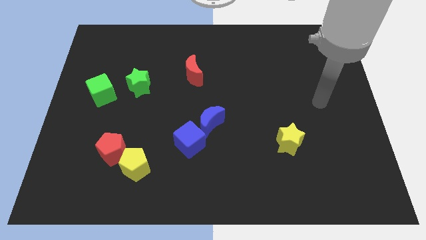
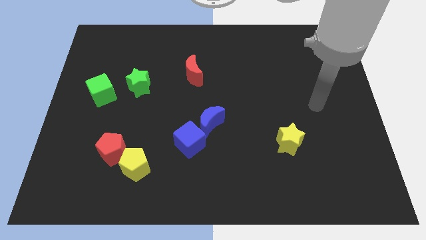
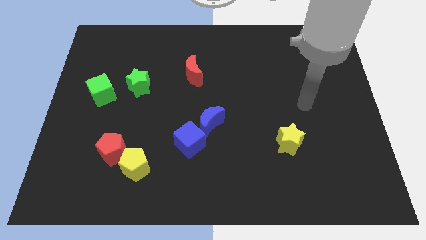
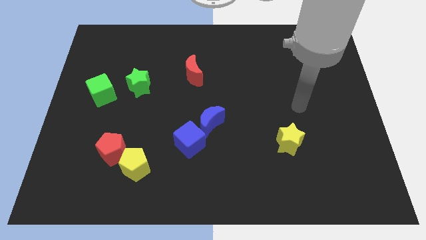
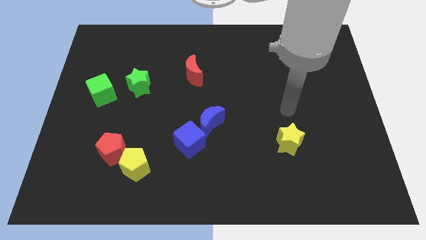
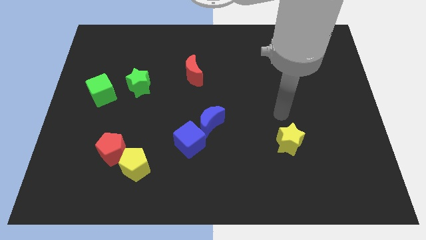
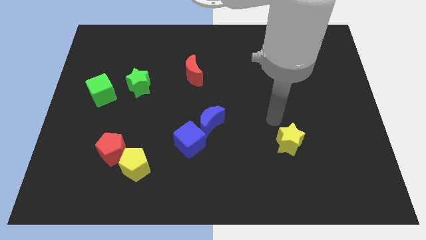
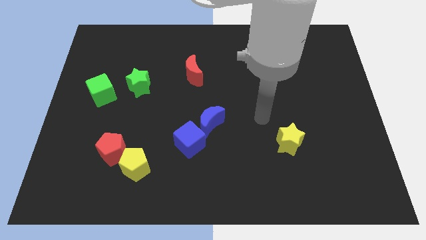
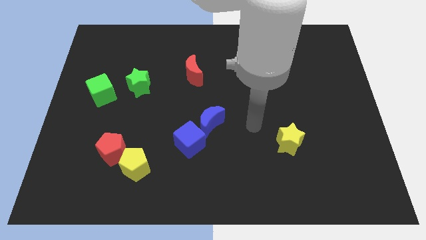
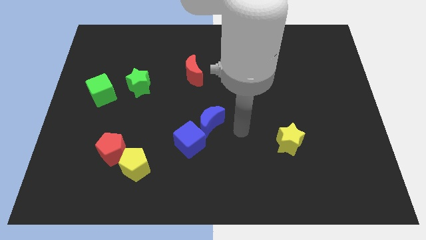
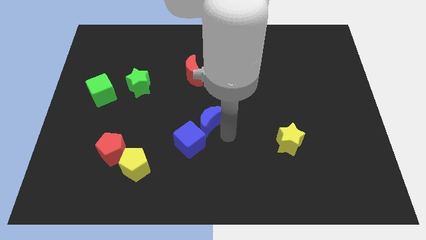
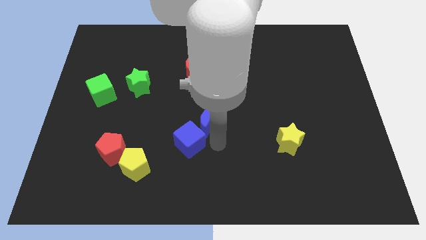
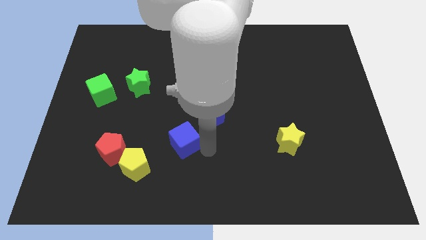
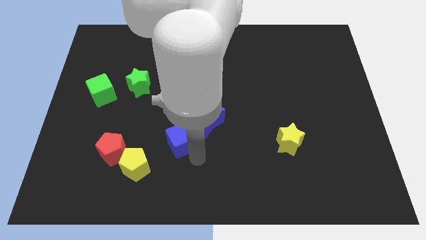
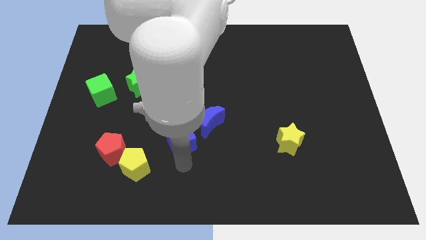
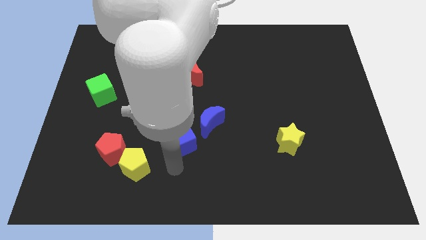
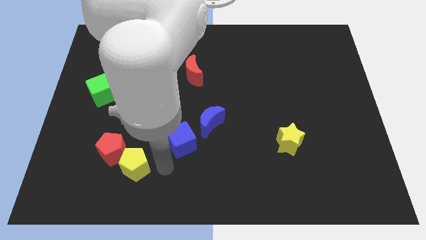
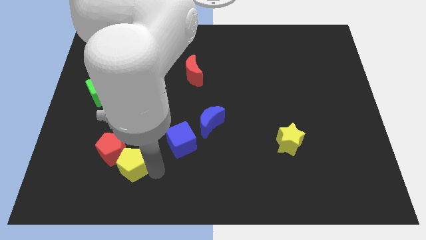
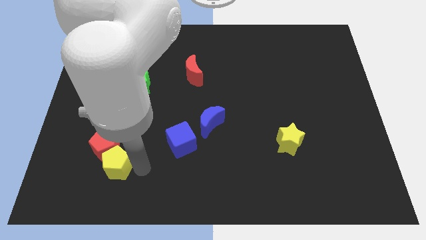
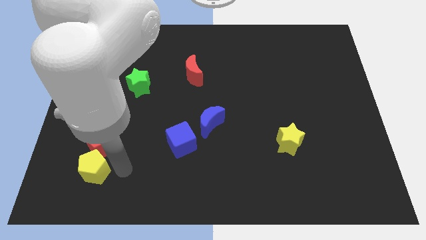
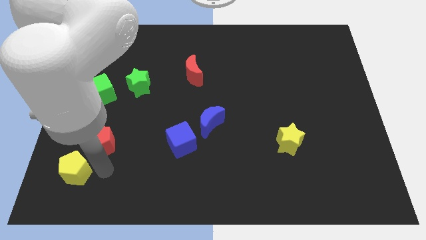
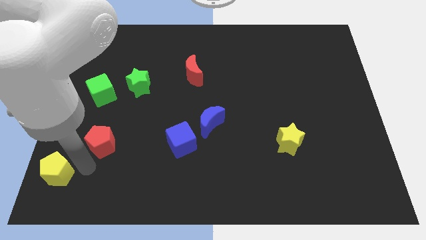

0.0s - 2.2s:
move the red pentagon away from the yellow pentagon

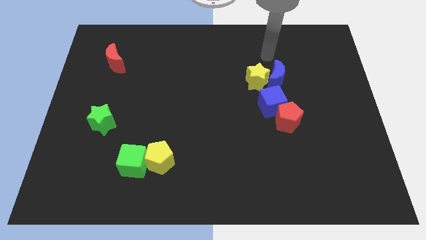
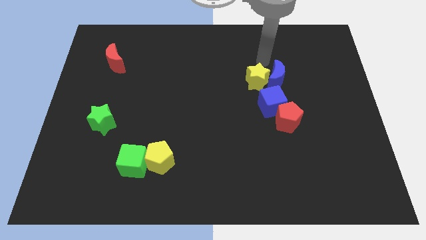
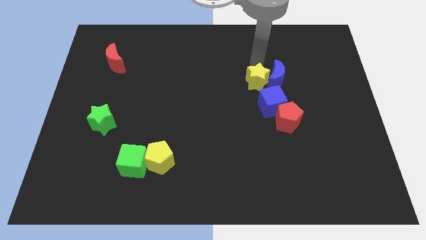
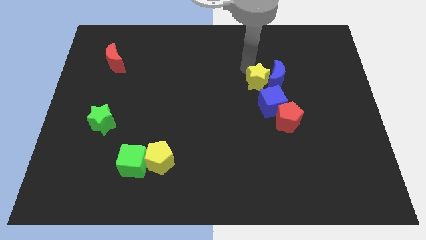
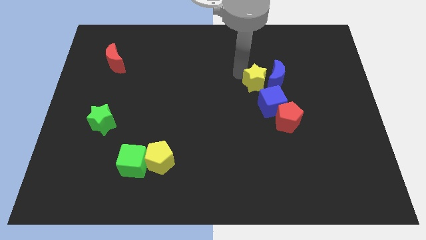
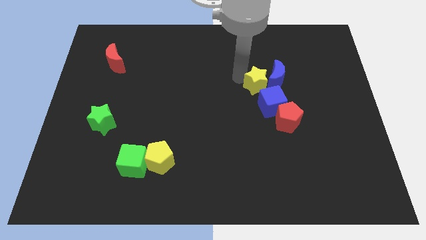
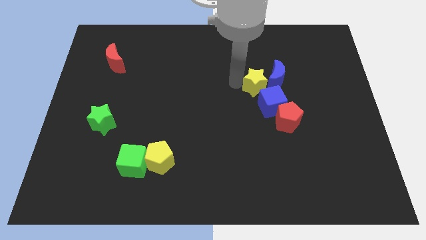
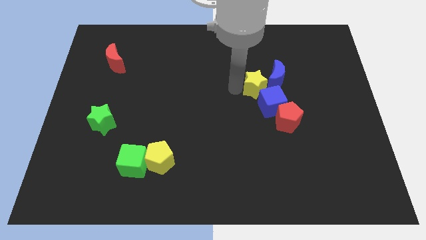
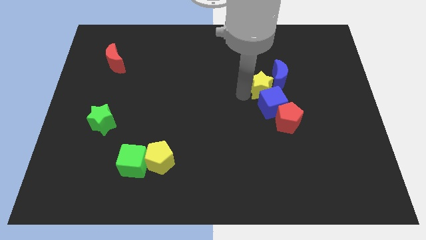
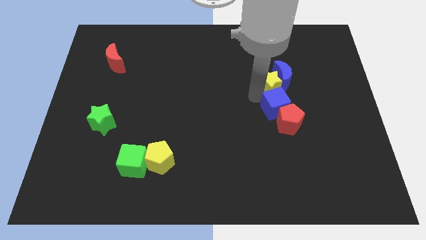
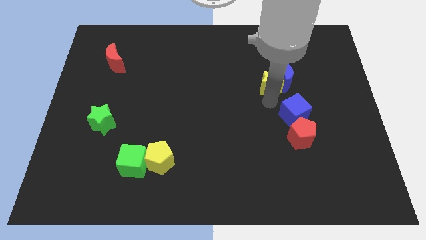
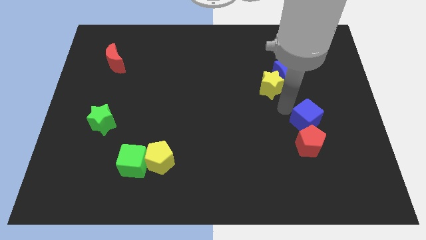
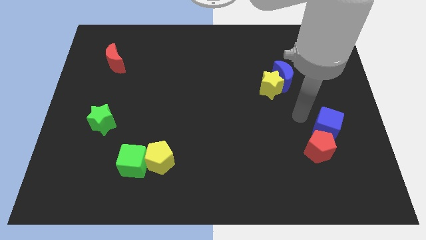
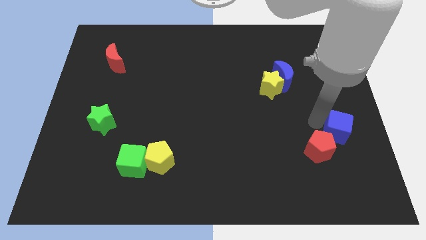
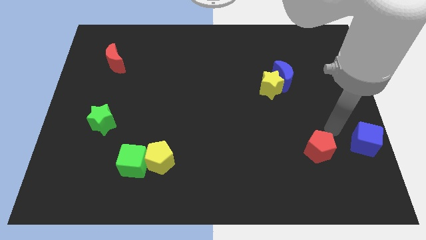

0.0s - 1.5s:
pull the red pentagon apart from the blue cube

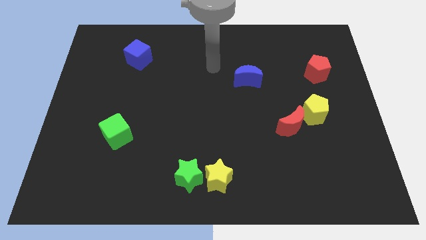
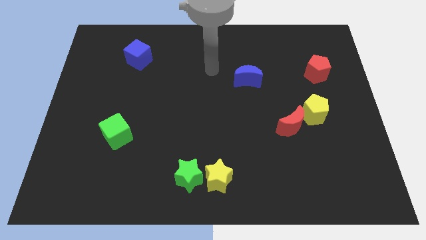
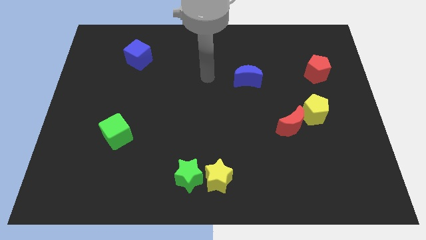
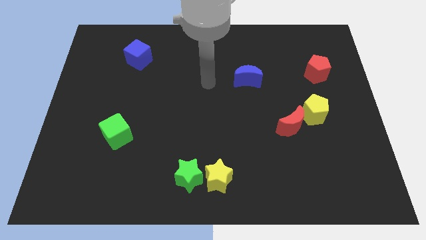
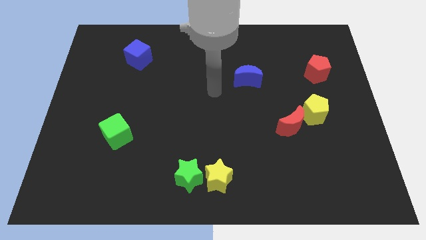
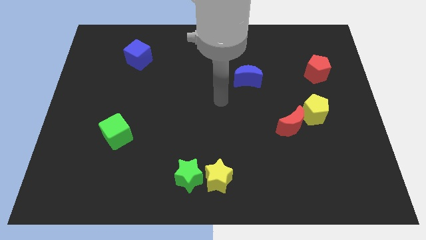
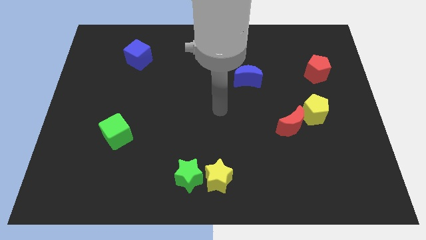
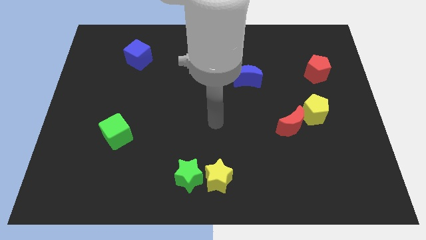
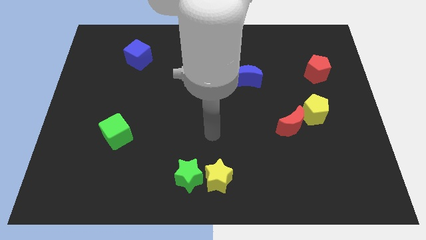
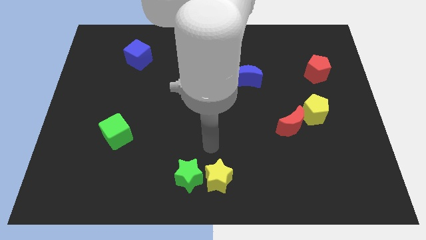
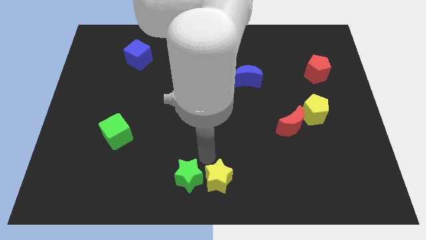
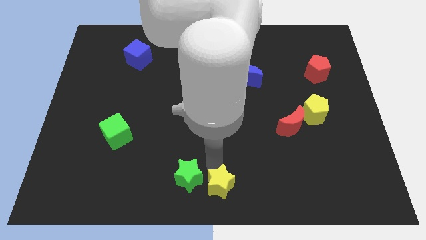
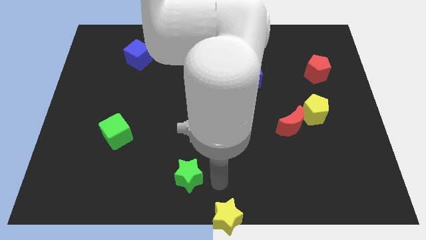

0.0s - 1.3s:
separate the green star from the yellow star

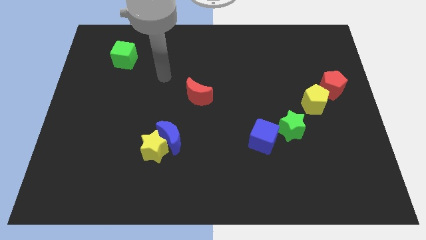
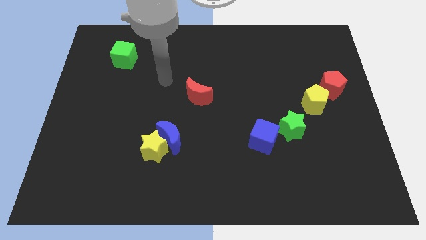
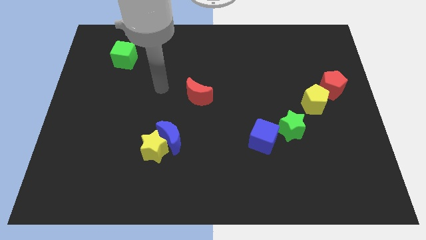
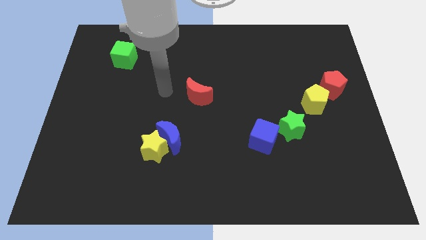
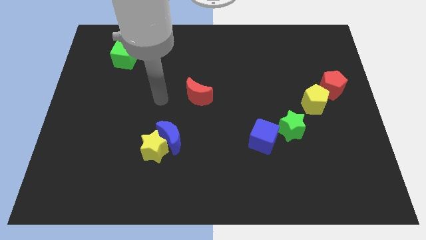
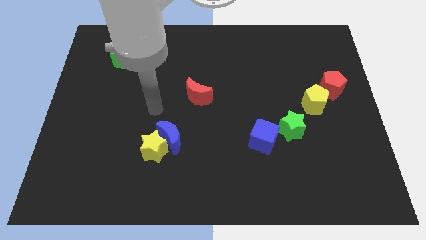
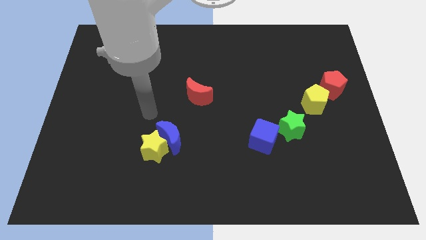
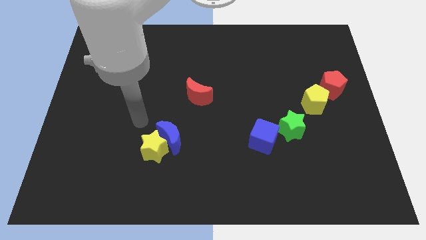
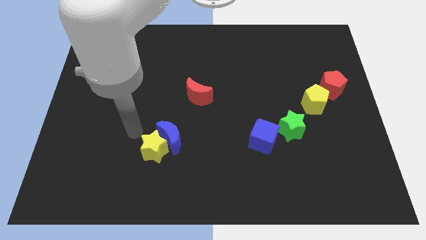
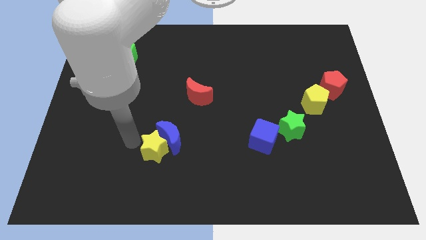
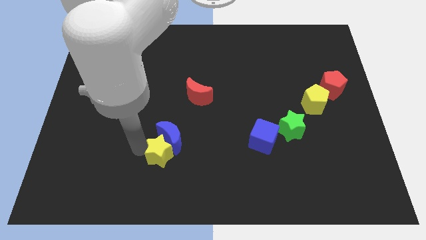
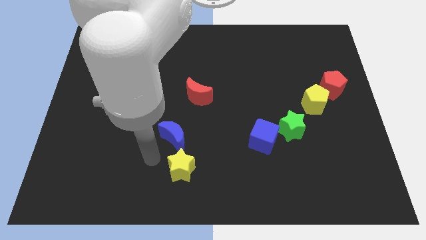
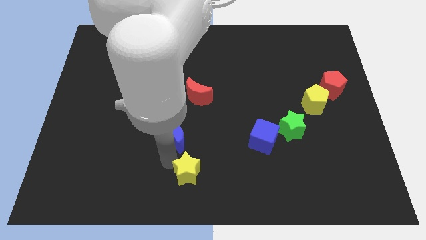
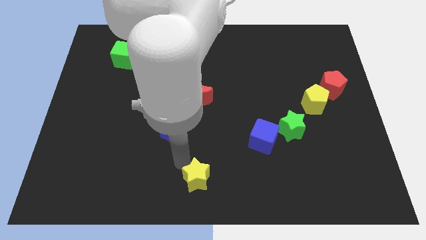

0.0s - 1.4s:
move the blue moon away from the yellow star

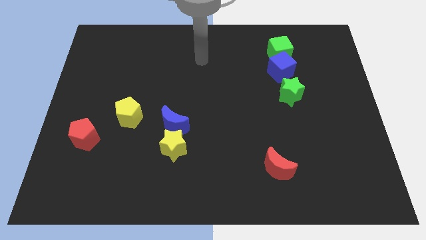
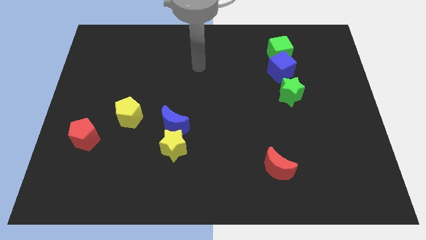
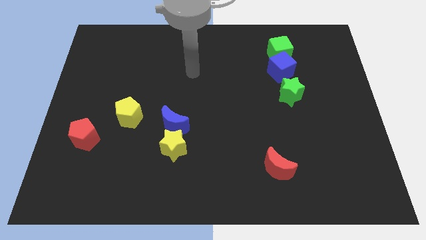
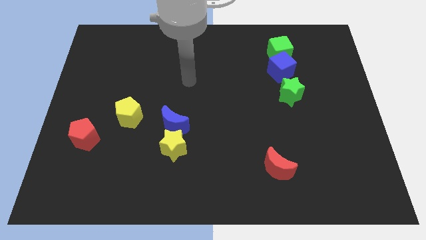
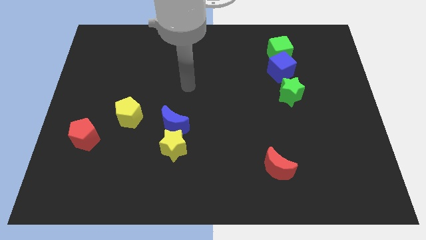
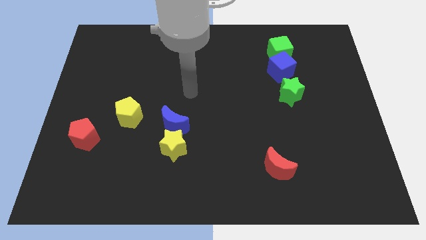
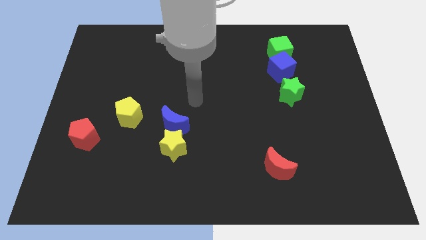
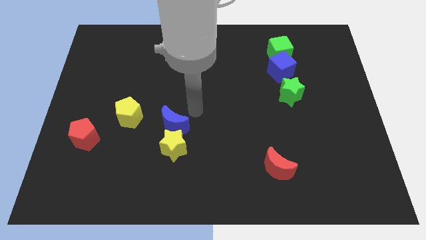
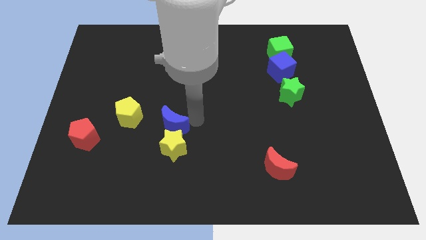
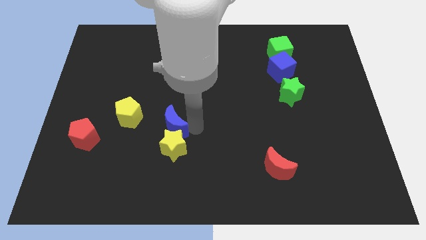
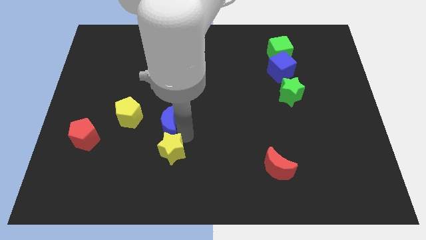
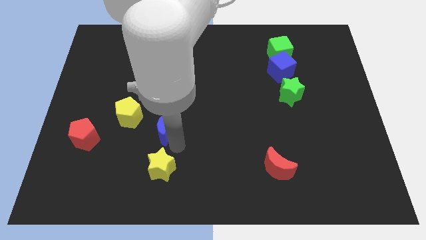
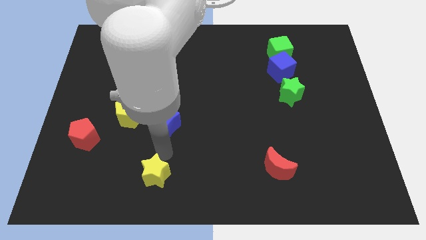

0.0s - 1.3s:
pull the blue moon apart from the yellow star

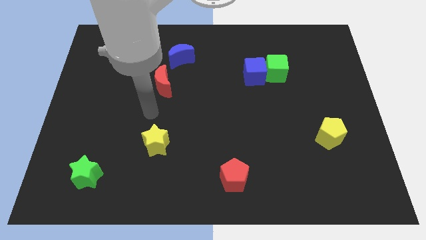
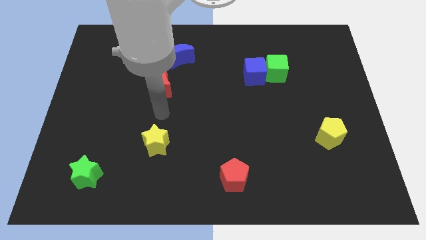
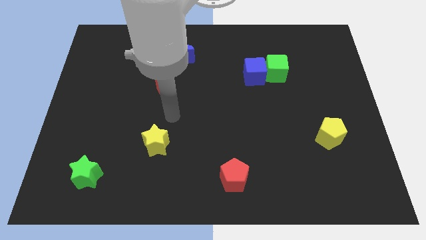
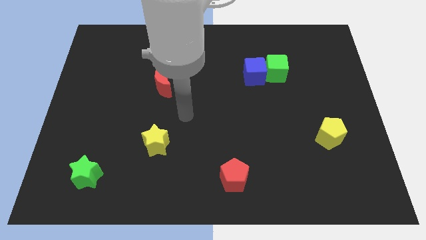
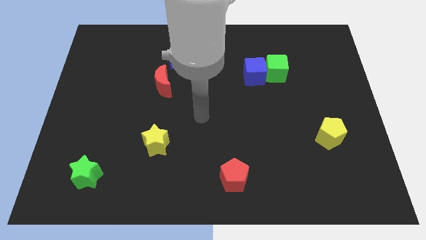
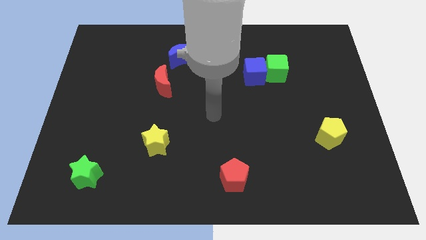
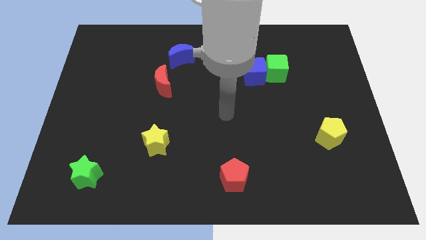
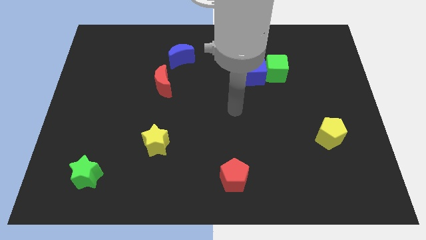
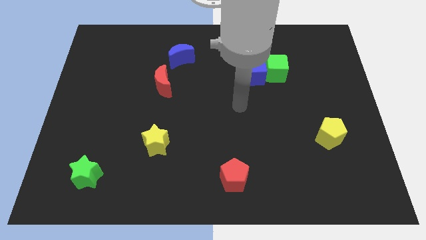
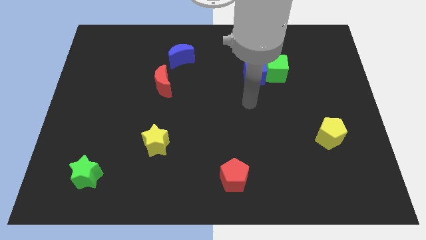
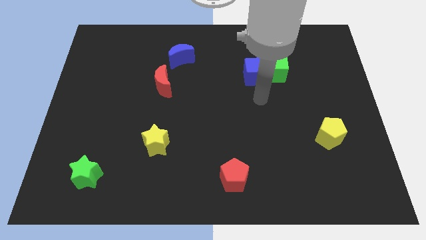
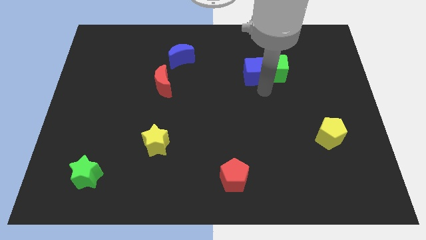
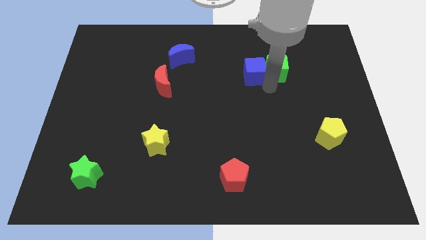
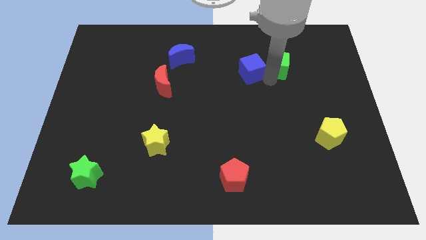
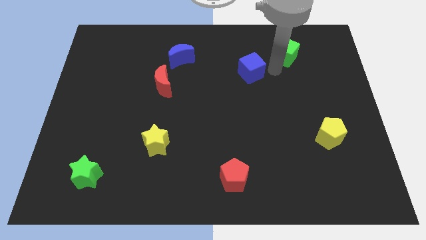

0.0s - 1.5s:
move the blue cube away from the green cube
